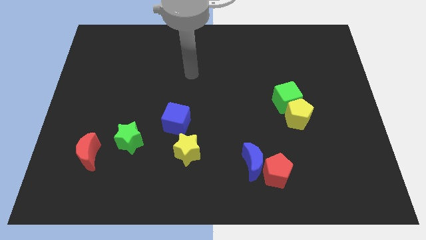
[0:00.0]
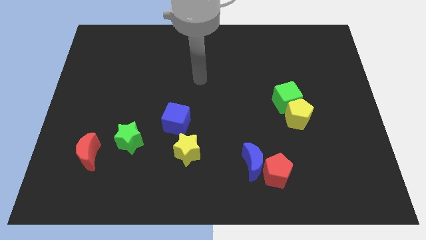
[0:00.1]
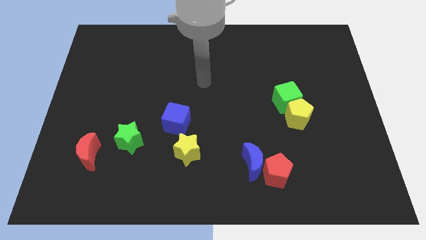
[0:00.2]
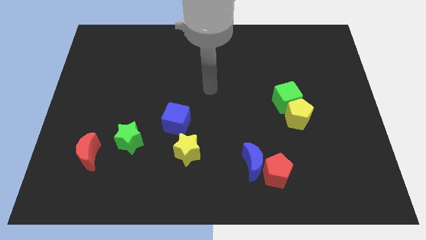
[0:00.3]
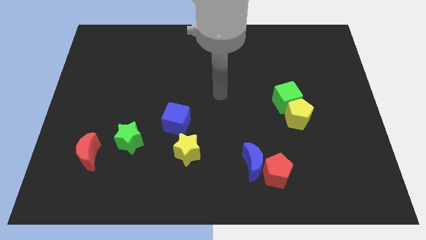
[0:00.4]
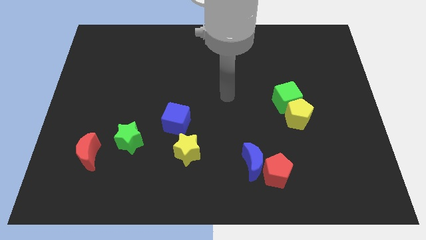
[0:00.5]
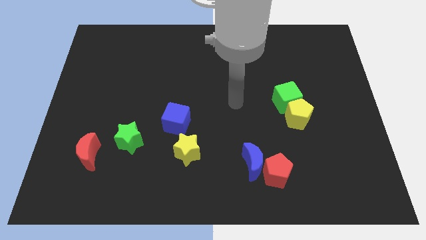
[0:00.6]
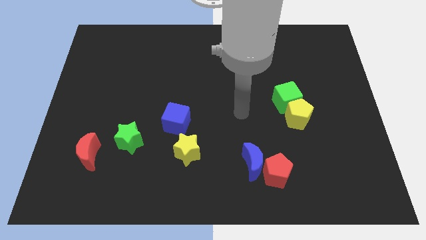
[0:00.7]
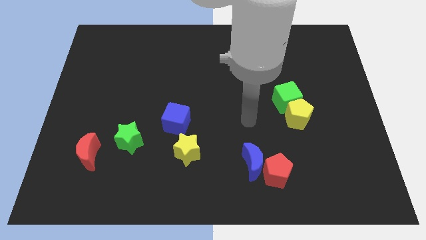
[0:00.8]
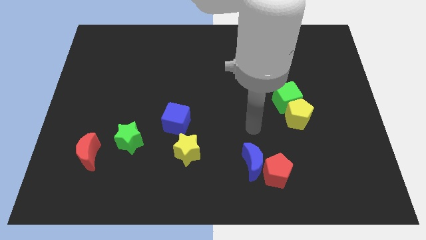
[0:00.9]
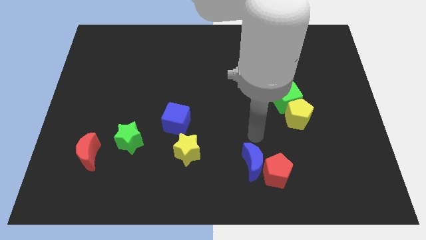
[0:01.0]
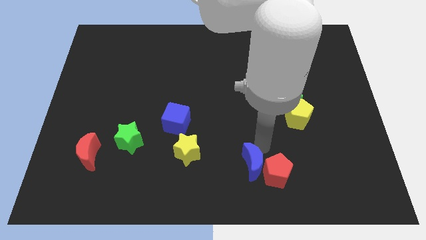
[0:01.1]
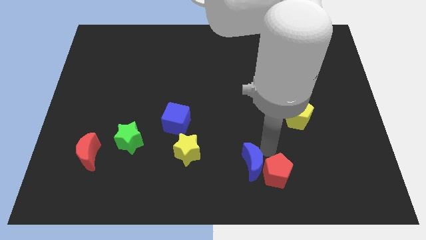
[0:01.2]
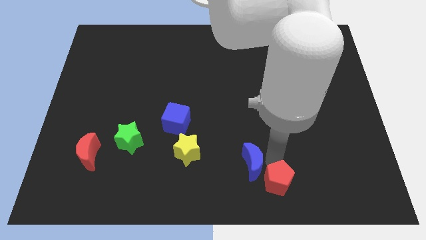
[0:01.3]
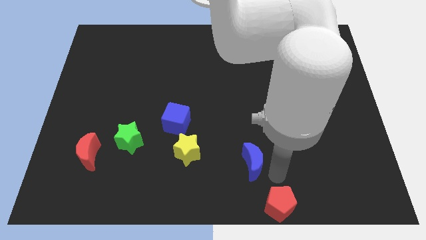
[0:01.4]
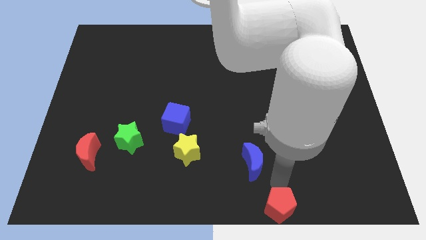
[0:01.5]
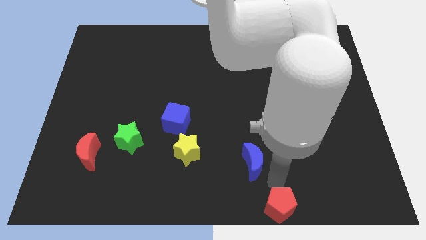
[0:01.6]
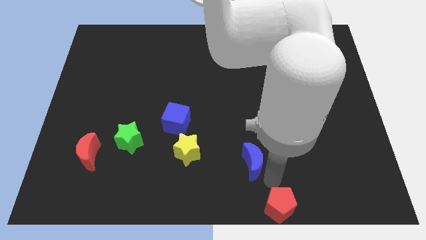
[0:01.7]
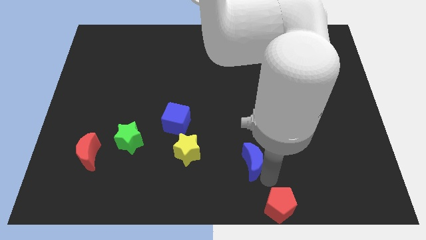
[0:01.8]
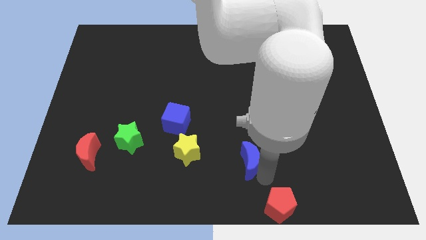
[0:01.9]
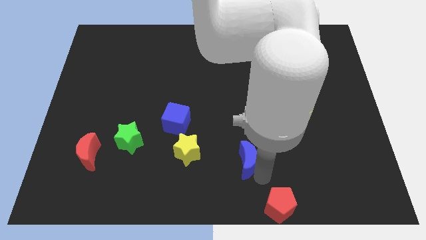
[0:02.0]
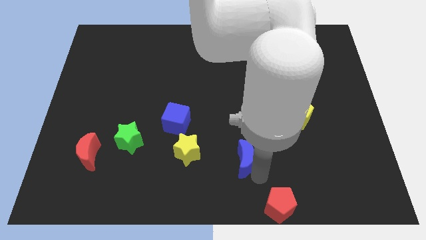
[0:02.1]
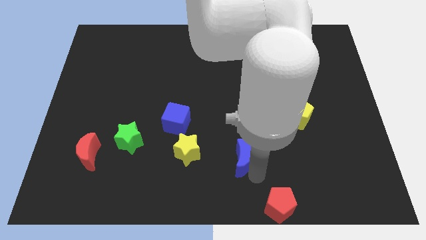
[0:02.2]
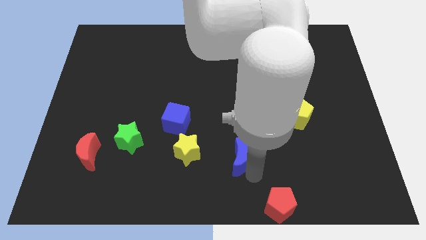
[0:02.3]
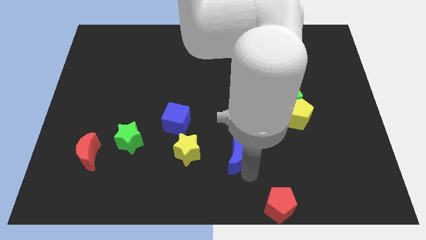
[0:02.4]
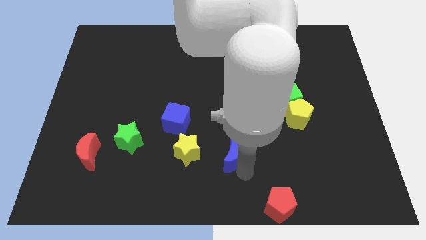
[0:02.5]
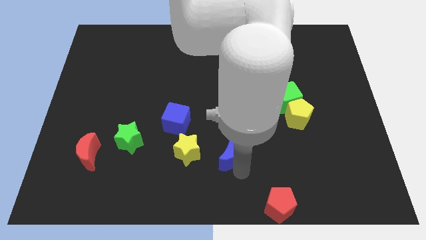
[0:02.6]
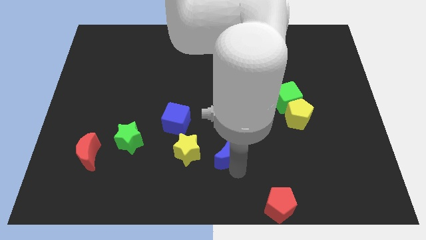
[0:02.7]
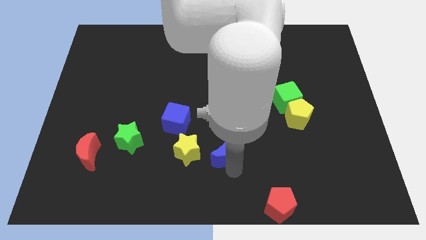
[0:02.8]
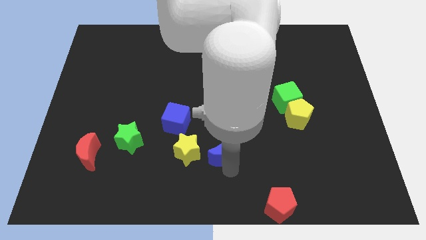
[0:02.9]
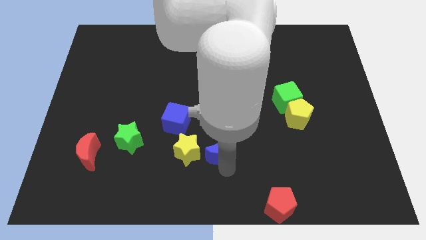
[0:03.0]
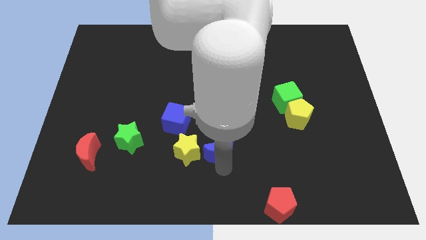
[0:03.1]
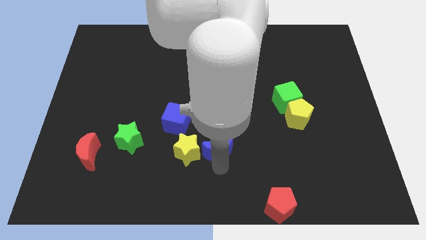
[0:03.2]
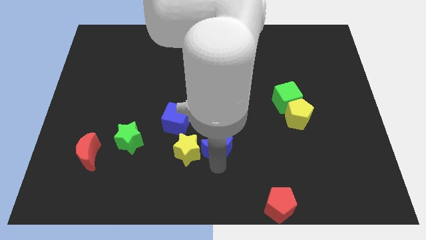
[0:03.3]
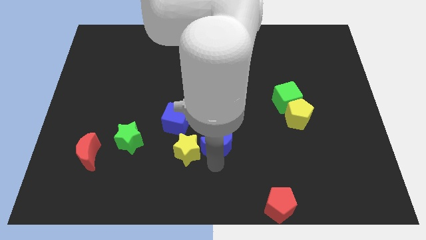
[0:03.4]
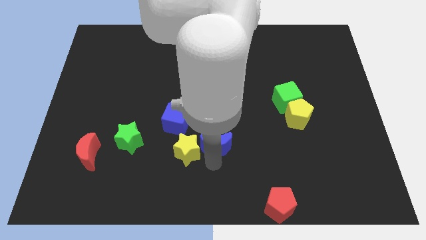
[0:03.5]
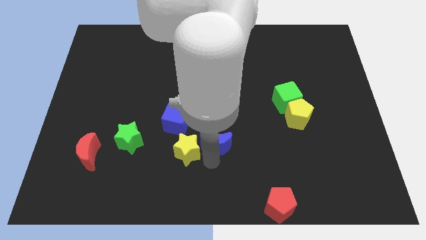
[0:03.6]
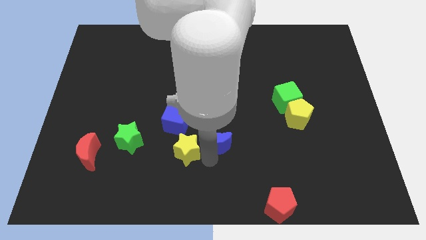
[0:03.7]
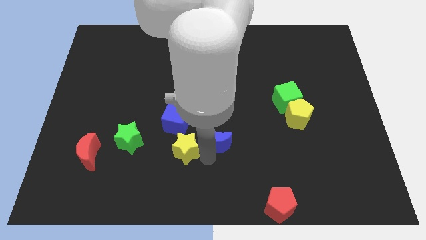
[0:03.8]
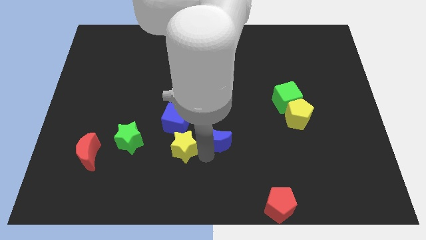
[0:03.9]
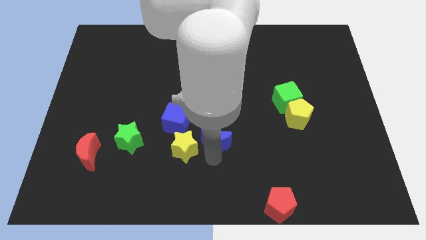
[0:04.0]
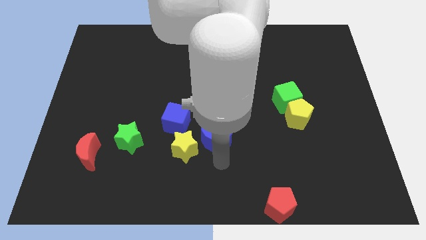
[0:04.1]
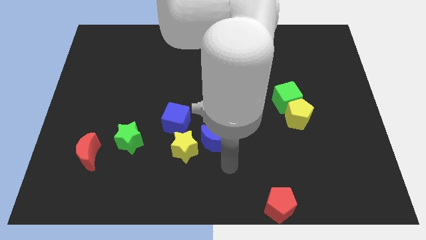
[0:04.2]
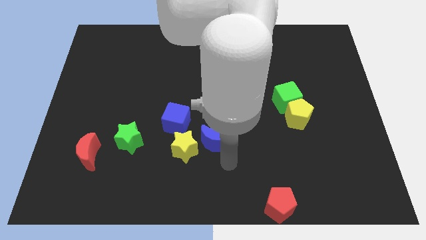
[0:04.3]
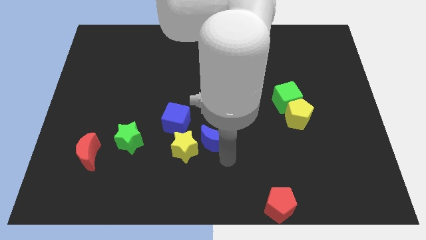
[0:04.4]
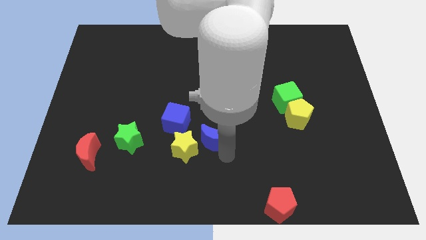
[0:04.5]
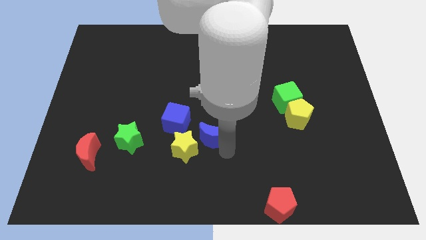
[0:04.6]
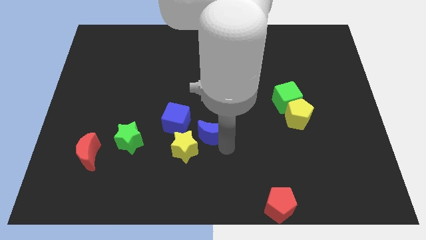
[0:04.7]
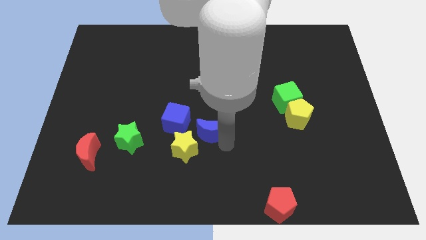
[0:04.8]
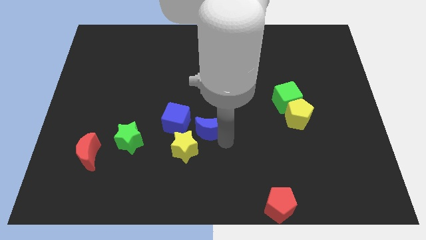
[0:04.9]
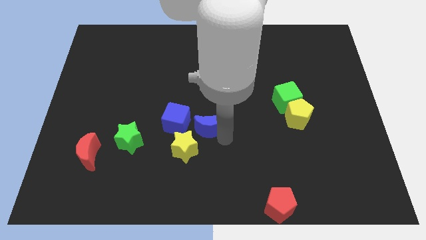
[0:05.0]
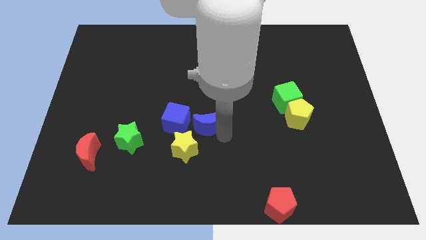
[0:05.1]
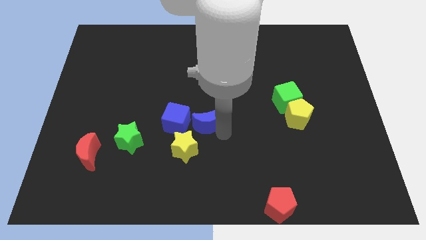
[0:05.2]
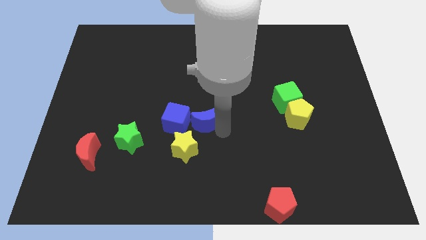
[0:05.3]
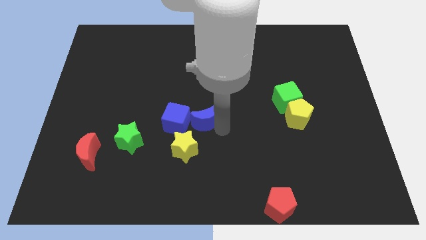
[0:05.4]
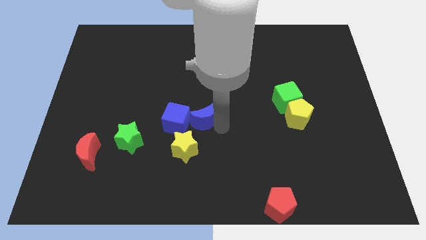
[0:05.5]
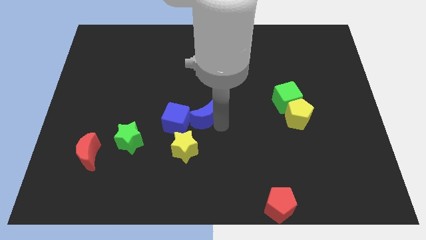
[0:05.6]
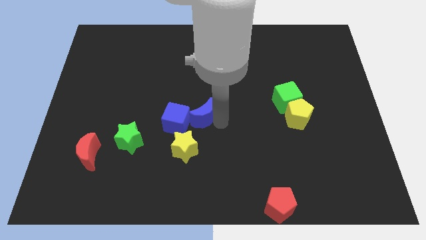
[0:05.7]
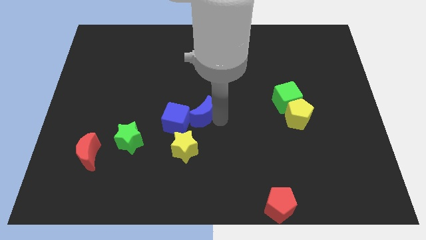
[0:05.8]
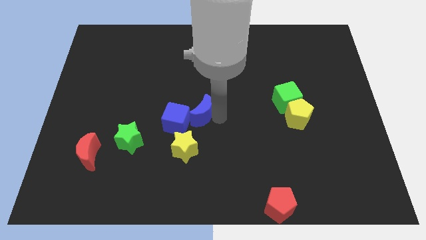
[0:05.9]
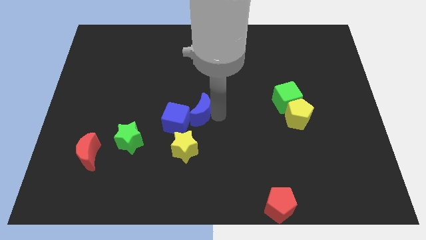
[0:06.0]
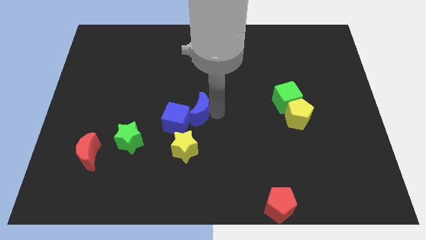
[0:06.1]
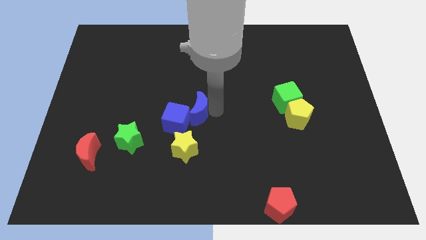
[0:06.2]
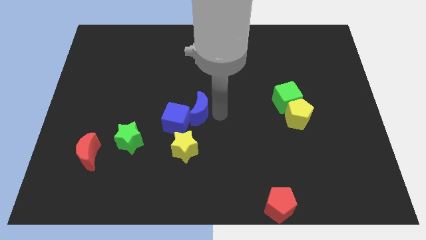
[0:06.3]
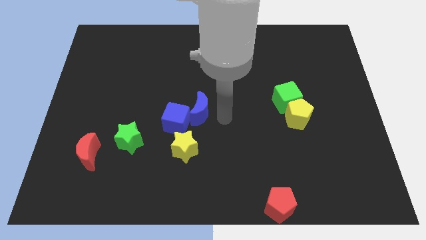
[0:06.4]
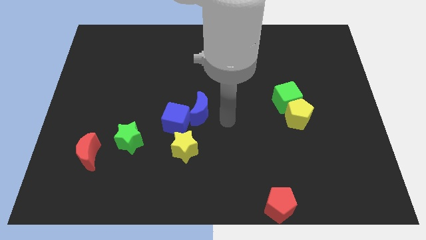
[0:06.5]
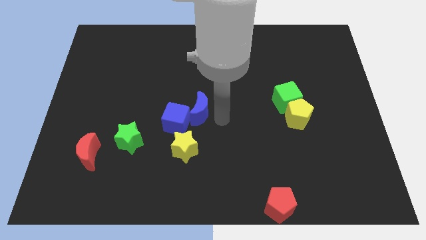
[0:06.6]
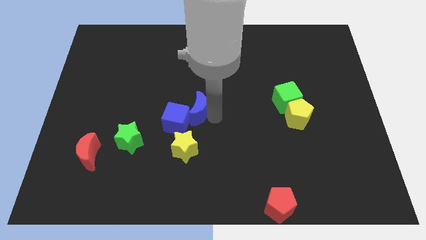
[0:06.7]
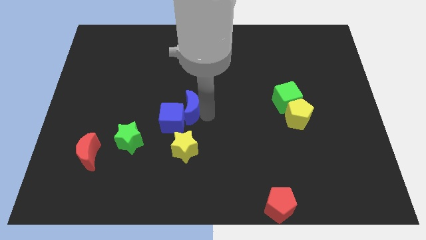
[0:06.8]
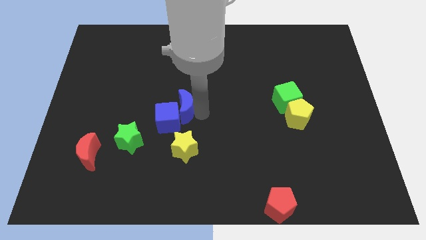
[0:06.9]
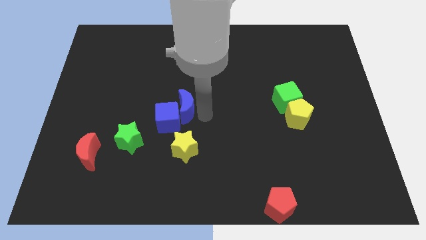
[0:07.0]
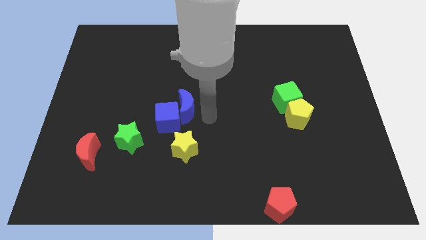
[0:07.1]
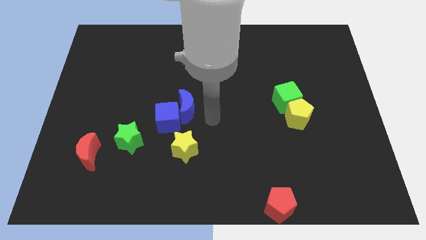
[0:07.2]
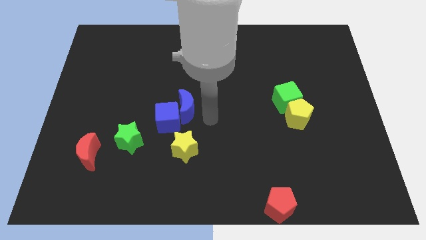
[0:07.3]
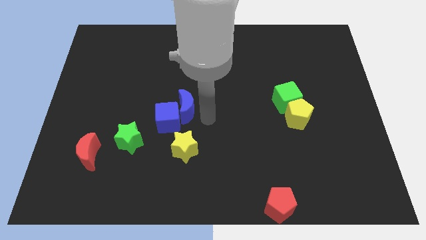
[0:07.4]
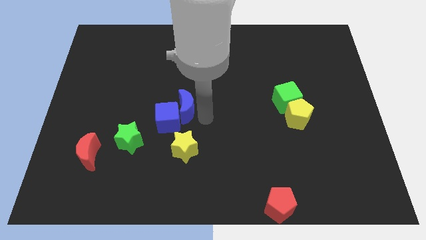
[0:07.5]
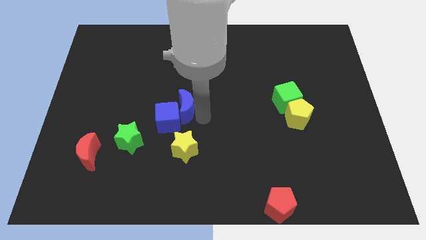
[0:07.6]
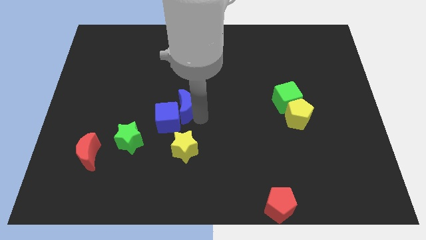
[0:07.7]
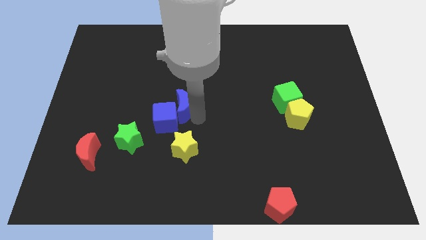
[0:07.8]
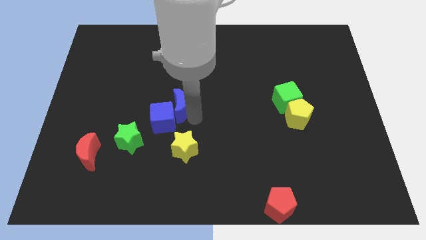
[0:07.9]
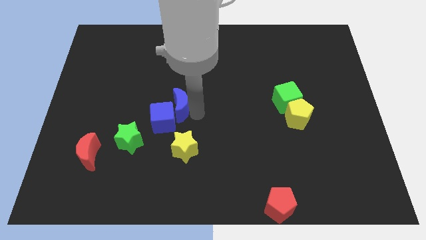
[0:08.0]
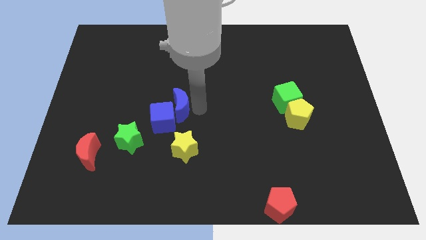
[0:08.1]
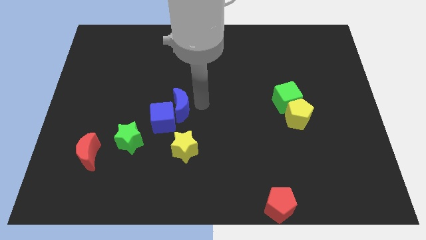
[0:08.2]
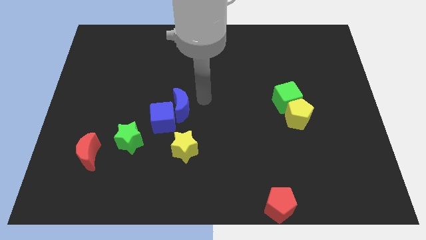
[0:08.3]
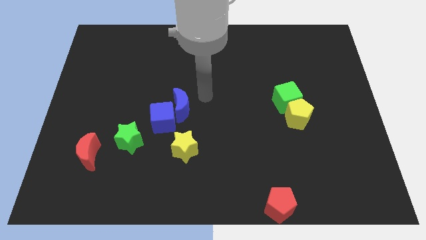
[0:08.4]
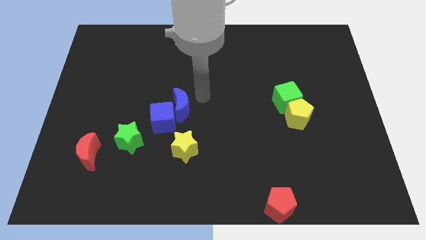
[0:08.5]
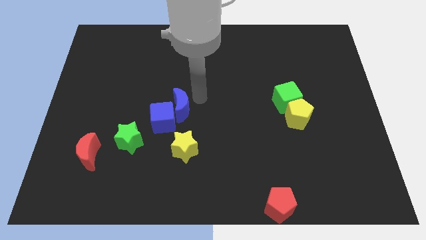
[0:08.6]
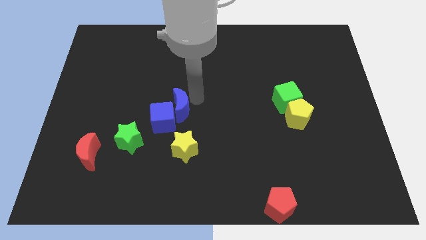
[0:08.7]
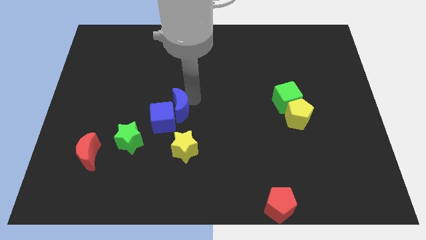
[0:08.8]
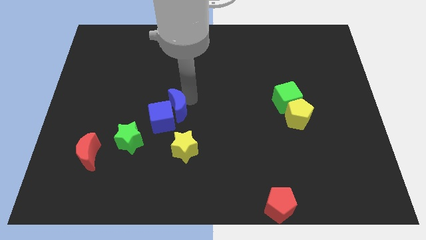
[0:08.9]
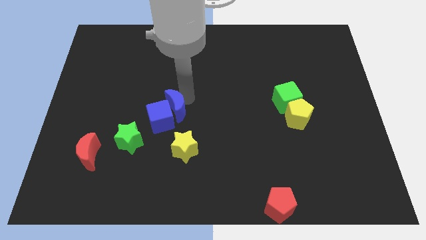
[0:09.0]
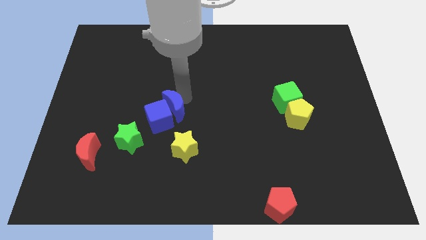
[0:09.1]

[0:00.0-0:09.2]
put the blue moon to the top right of the green star
